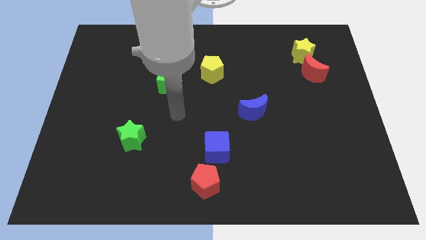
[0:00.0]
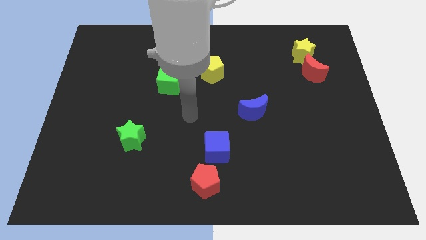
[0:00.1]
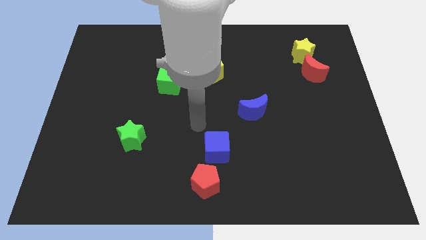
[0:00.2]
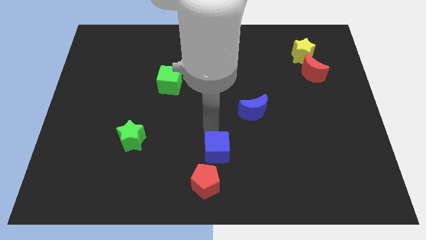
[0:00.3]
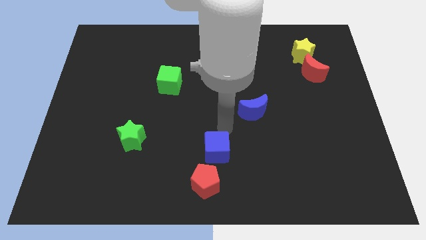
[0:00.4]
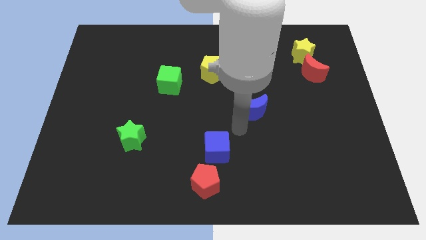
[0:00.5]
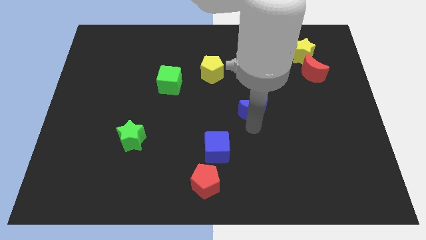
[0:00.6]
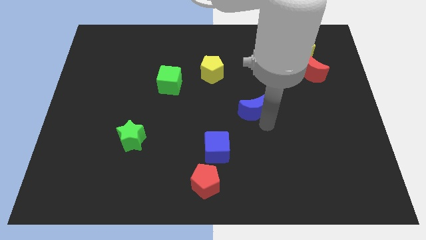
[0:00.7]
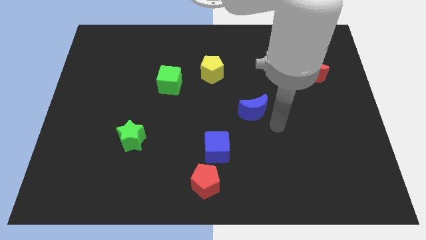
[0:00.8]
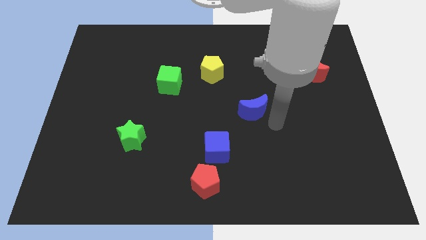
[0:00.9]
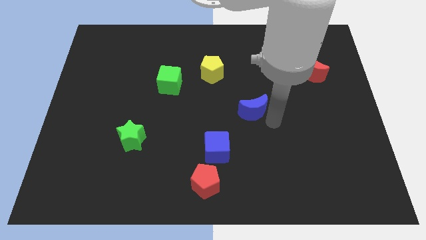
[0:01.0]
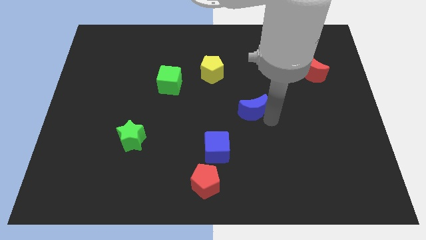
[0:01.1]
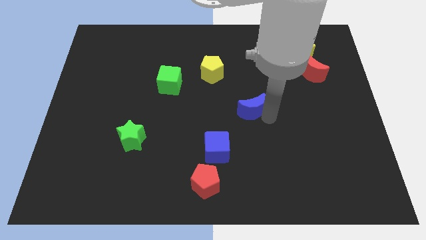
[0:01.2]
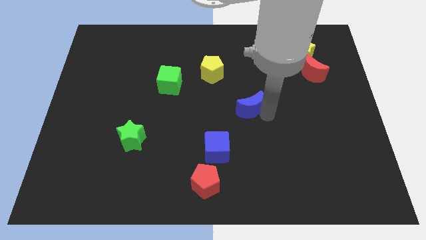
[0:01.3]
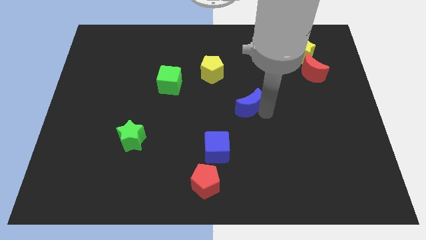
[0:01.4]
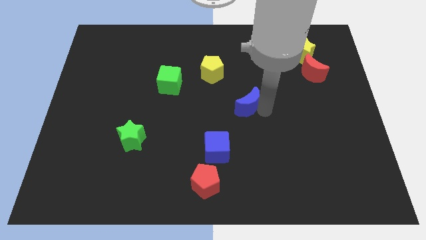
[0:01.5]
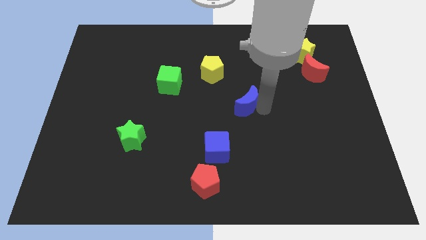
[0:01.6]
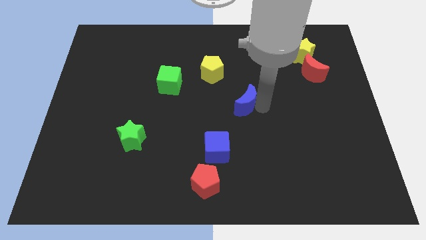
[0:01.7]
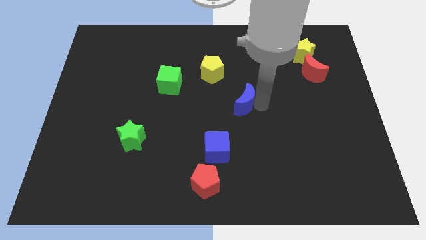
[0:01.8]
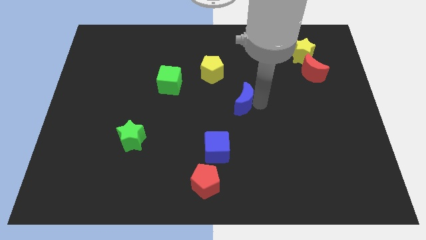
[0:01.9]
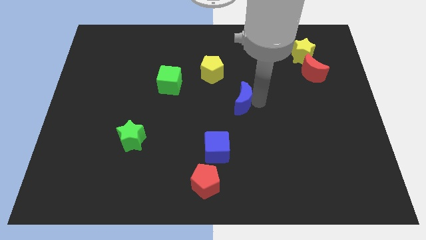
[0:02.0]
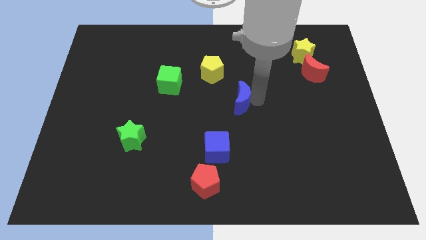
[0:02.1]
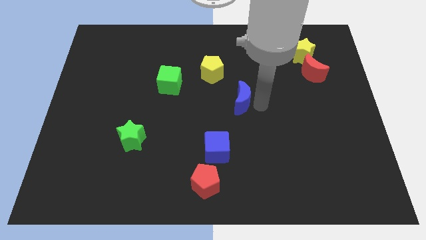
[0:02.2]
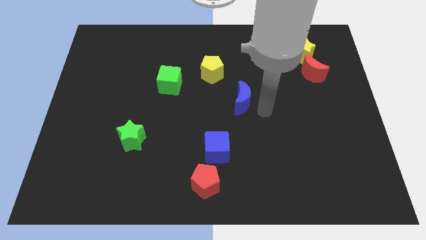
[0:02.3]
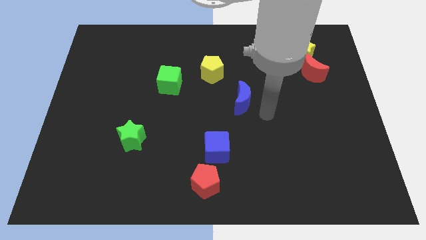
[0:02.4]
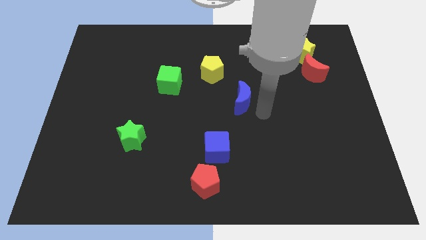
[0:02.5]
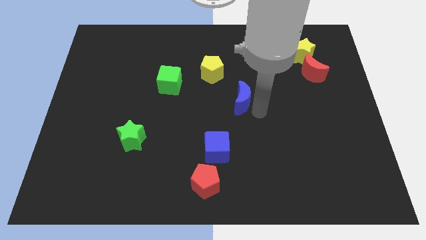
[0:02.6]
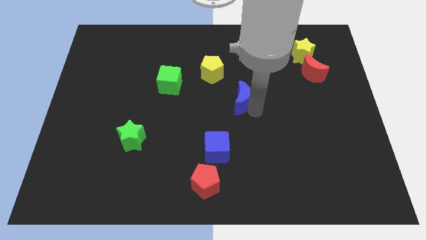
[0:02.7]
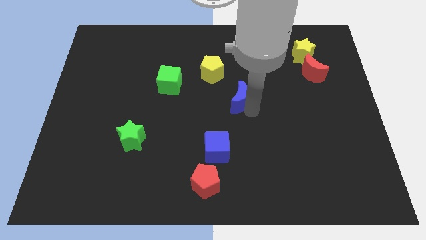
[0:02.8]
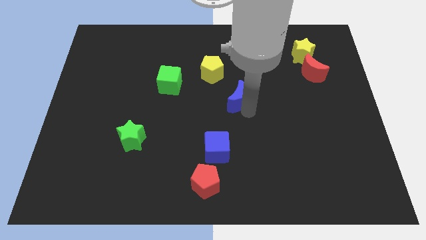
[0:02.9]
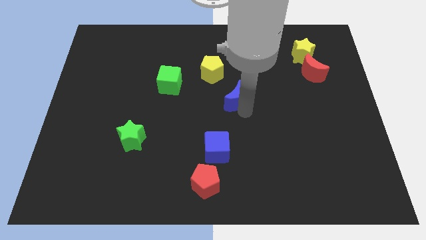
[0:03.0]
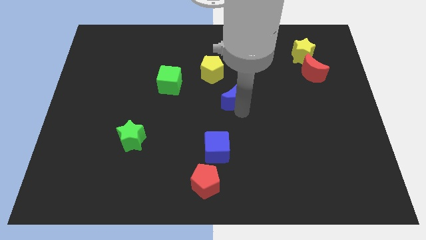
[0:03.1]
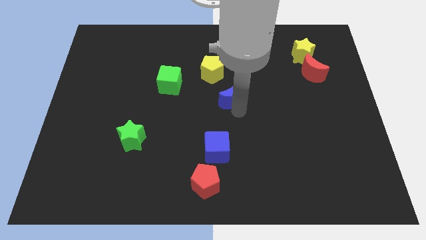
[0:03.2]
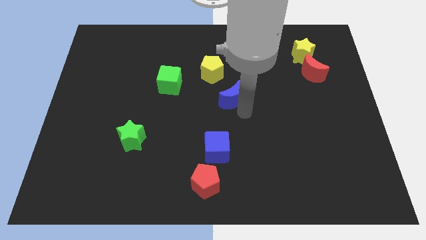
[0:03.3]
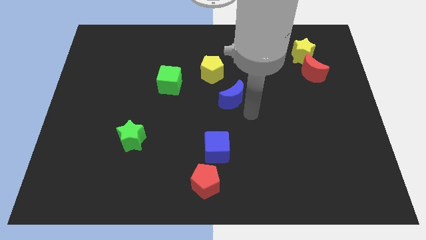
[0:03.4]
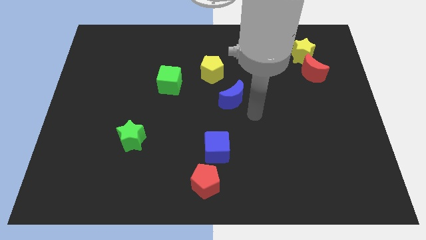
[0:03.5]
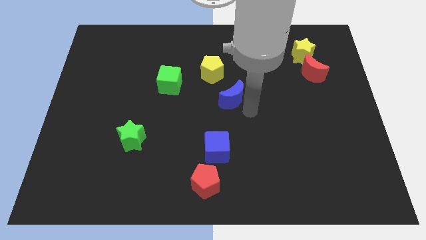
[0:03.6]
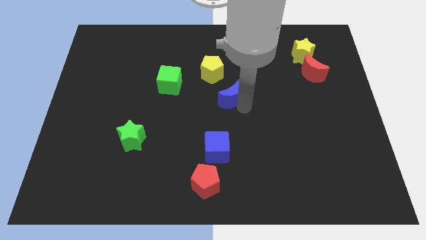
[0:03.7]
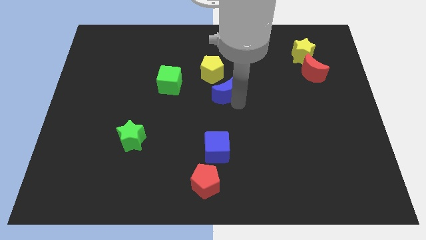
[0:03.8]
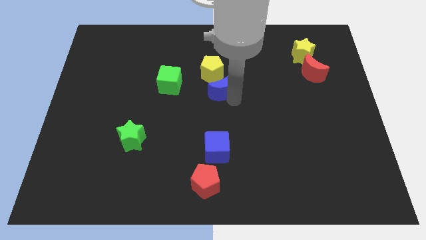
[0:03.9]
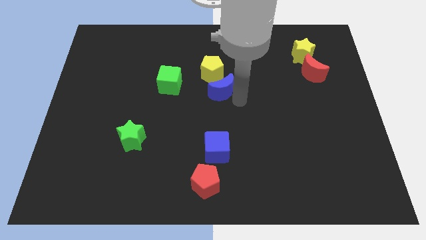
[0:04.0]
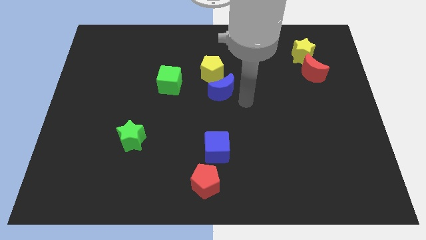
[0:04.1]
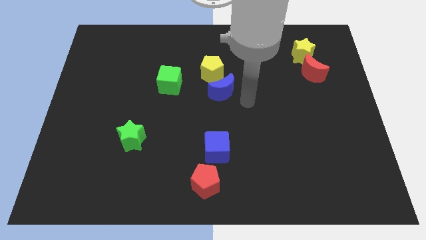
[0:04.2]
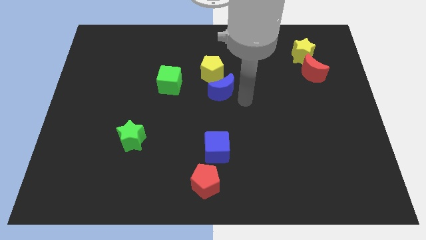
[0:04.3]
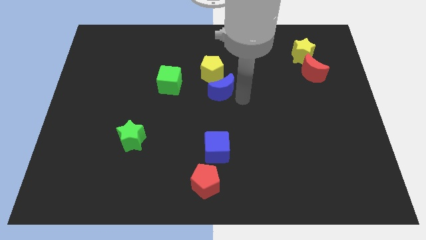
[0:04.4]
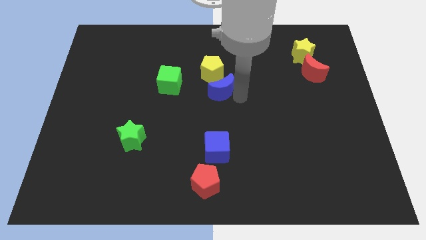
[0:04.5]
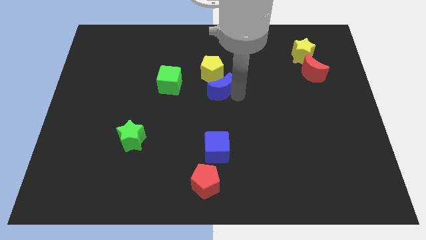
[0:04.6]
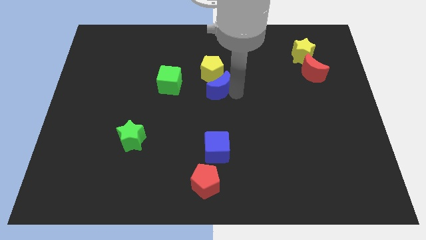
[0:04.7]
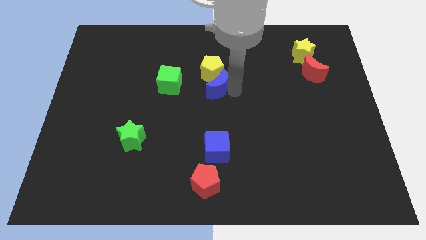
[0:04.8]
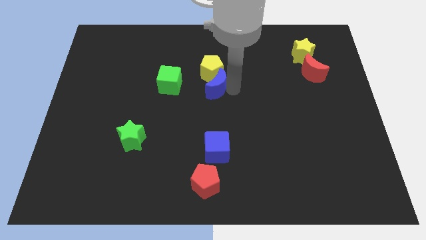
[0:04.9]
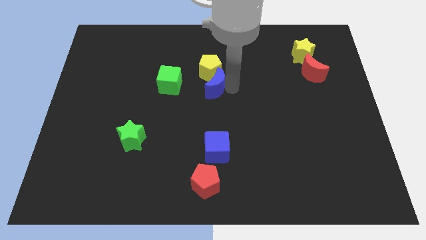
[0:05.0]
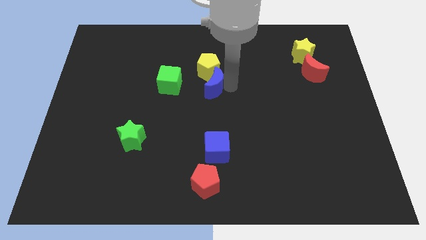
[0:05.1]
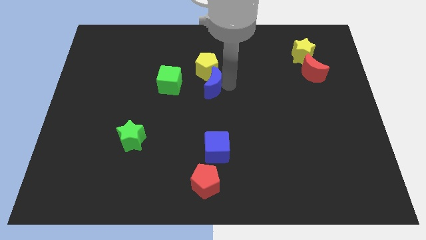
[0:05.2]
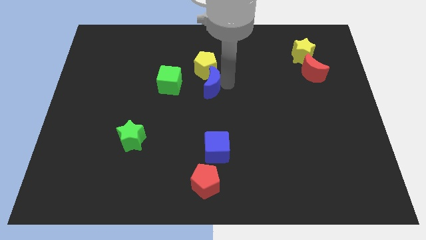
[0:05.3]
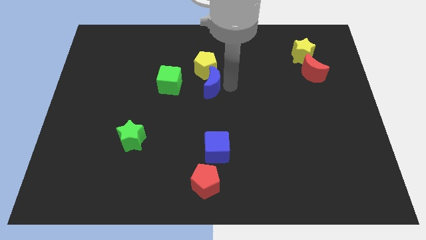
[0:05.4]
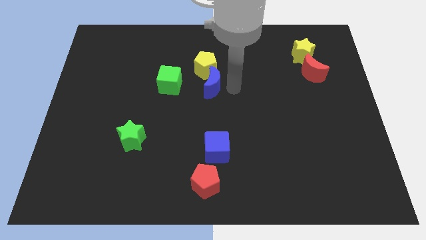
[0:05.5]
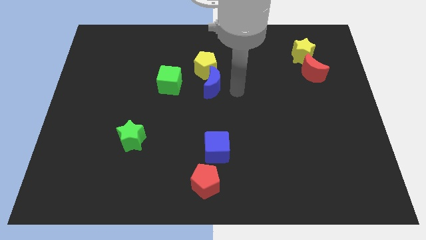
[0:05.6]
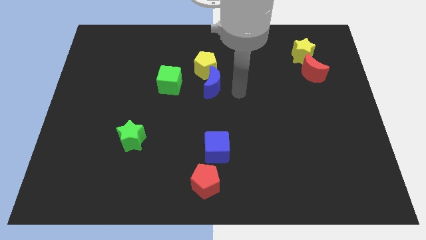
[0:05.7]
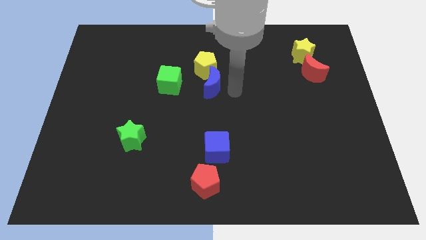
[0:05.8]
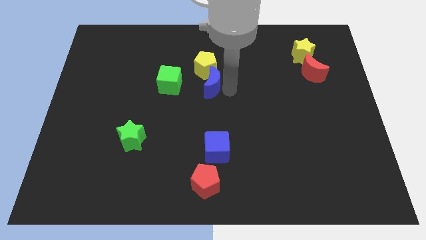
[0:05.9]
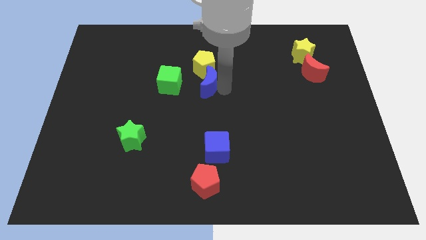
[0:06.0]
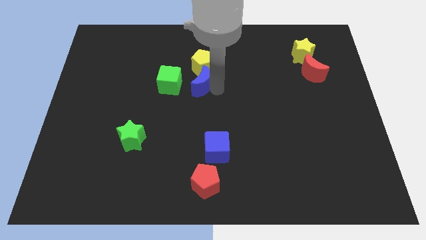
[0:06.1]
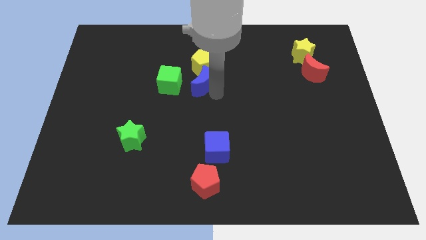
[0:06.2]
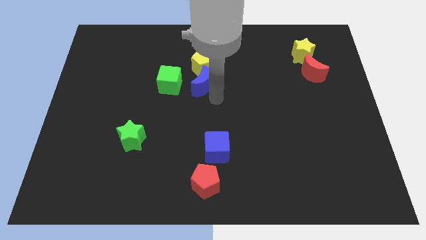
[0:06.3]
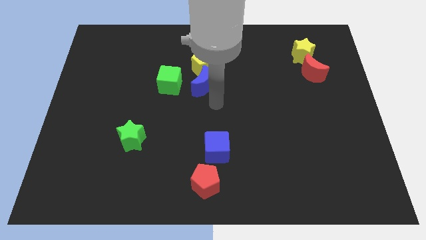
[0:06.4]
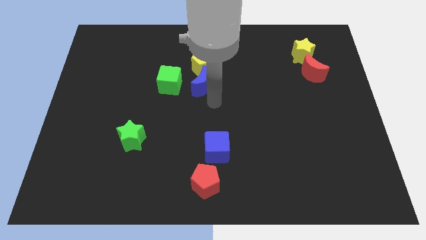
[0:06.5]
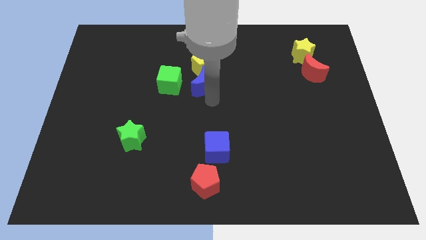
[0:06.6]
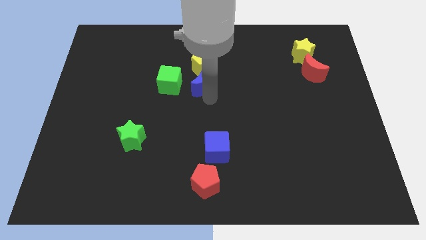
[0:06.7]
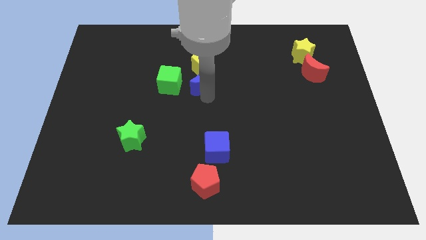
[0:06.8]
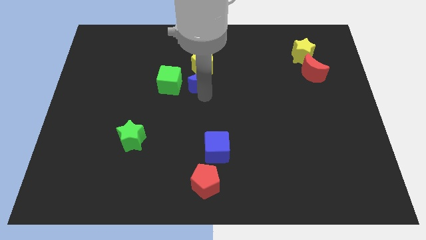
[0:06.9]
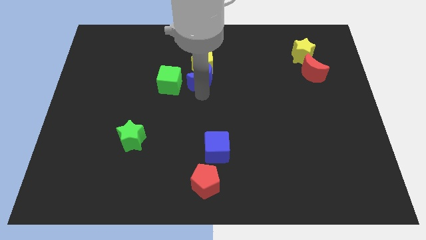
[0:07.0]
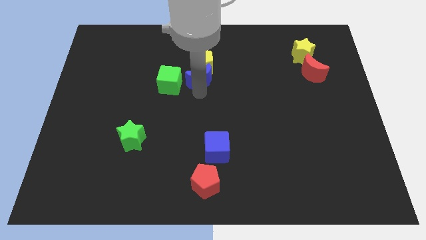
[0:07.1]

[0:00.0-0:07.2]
slide the blue moon diagonally up and to the right of the green cube
